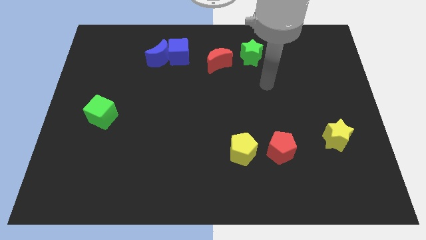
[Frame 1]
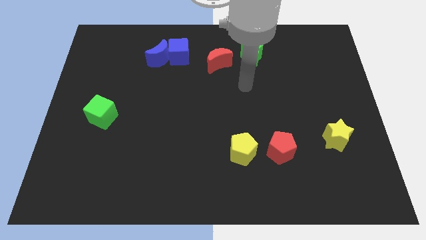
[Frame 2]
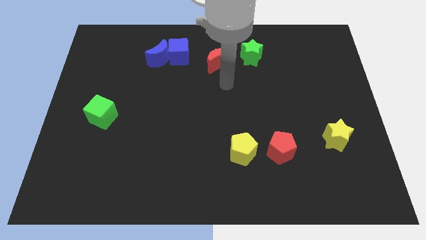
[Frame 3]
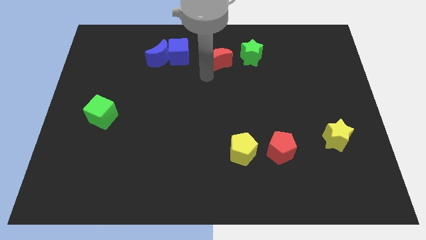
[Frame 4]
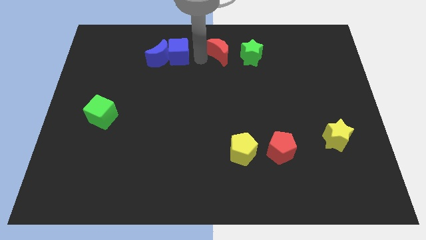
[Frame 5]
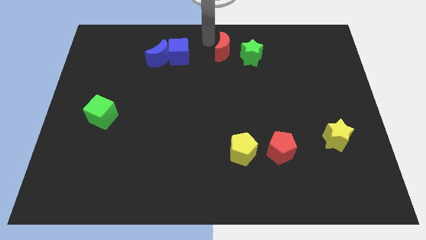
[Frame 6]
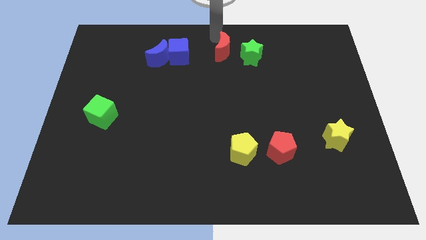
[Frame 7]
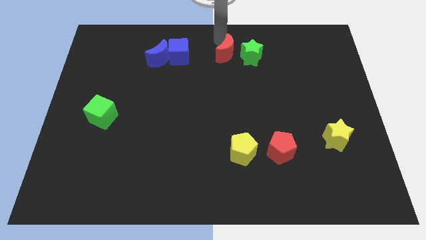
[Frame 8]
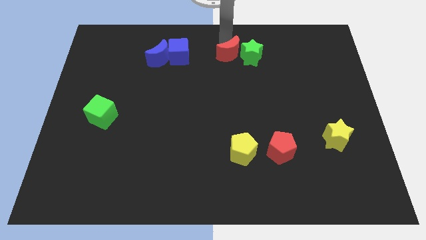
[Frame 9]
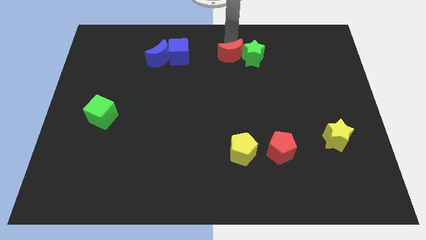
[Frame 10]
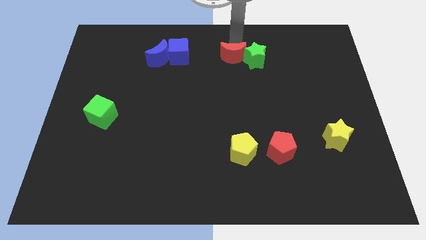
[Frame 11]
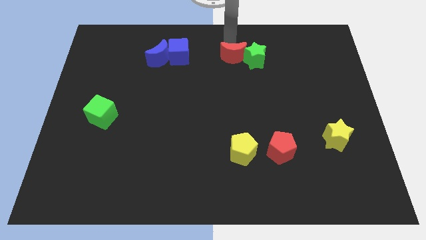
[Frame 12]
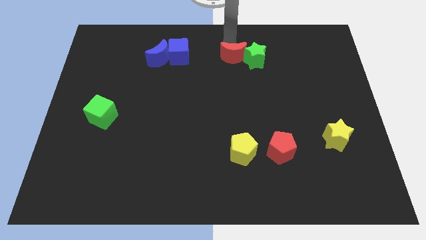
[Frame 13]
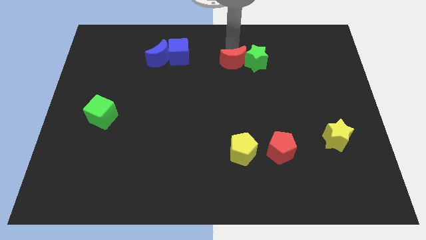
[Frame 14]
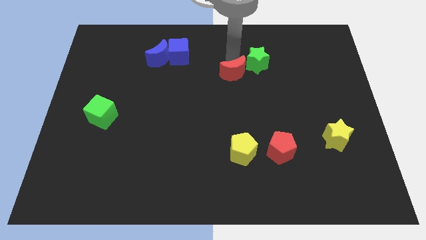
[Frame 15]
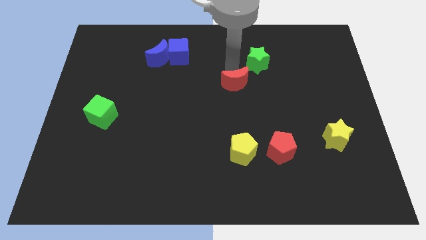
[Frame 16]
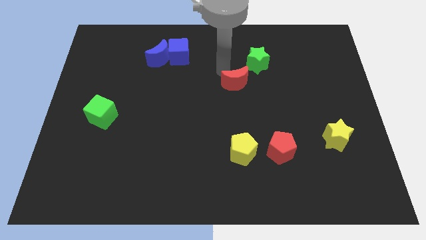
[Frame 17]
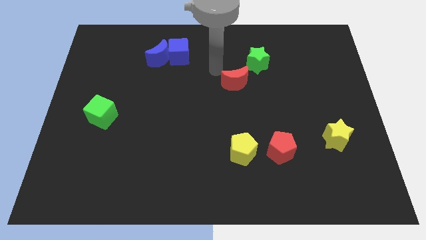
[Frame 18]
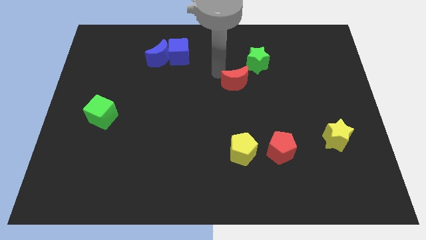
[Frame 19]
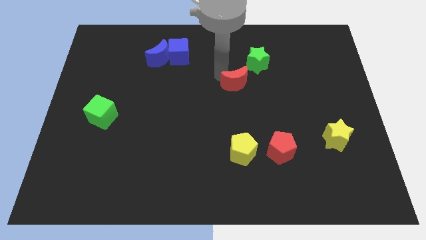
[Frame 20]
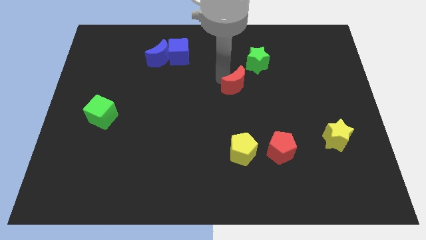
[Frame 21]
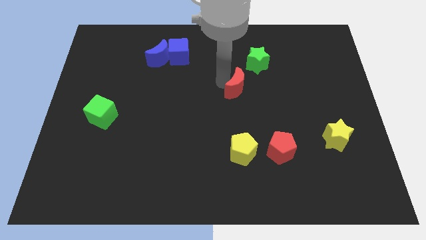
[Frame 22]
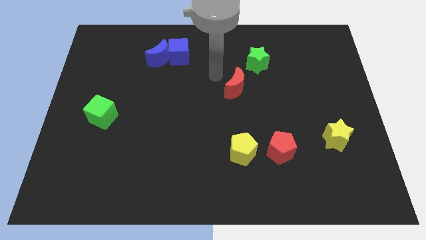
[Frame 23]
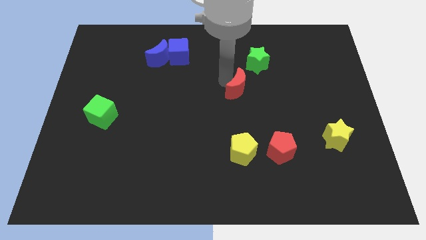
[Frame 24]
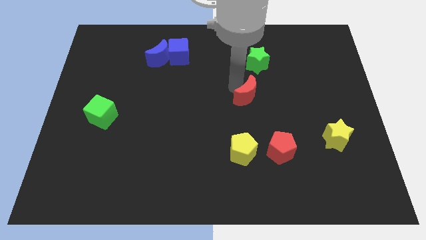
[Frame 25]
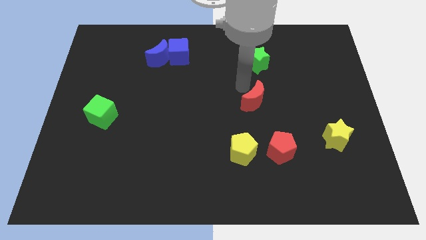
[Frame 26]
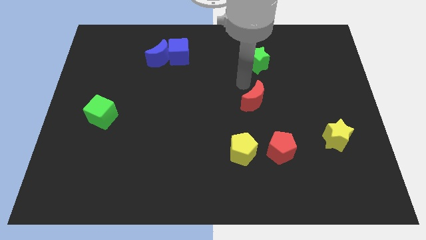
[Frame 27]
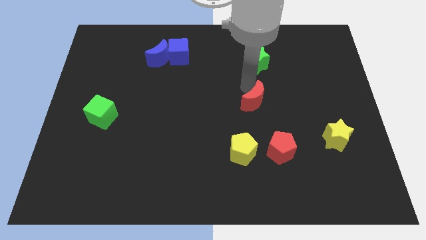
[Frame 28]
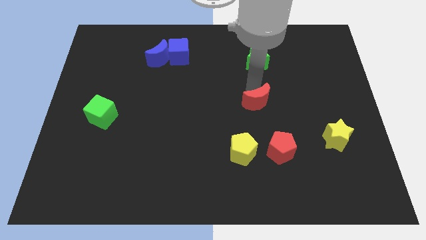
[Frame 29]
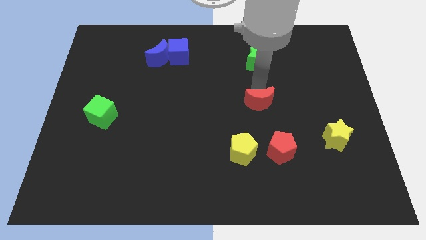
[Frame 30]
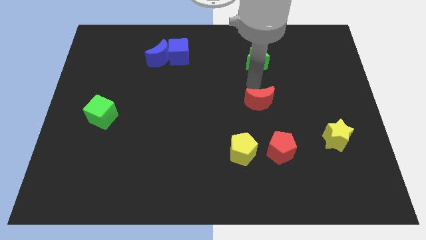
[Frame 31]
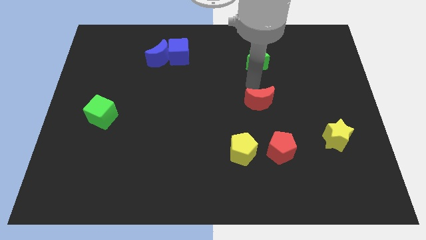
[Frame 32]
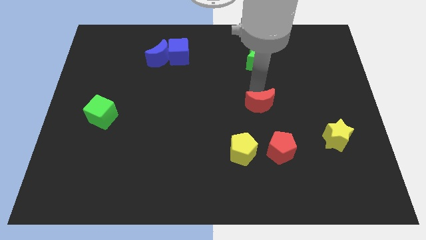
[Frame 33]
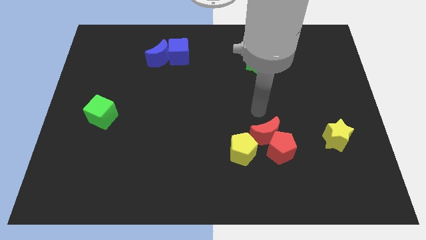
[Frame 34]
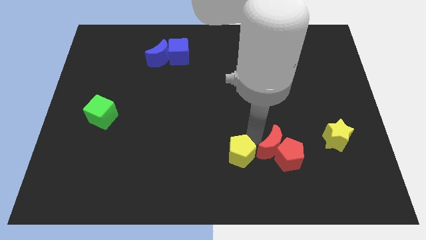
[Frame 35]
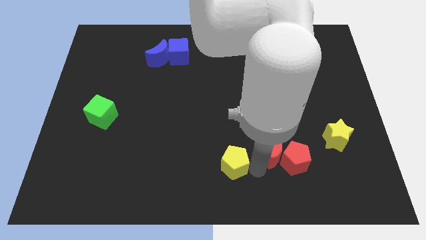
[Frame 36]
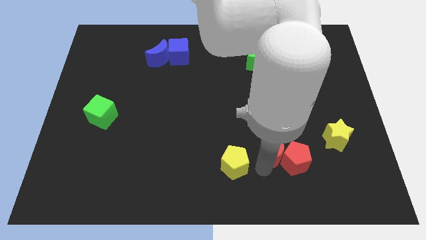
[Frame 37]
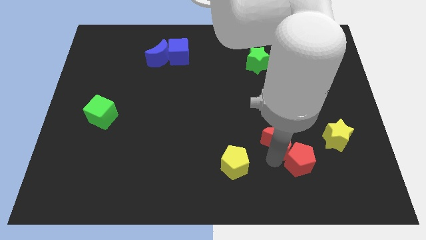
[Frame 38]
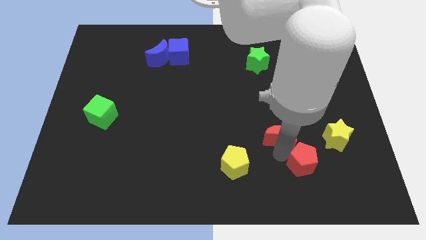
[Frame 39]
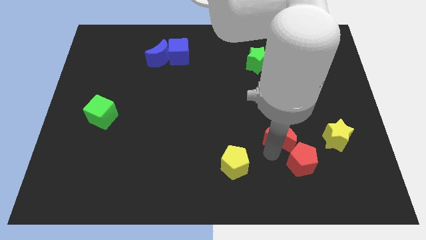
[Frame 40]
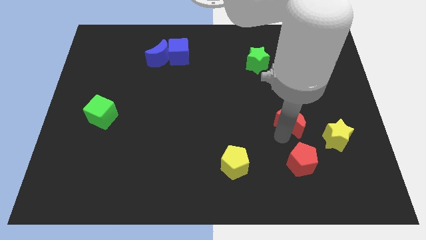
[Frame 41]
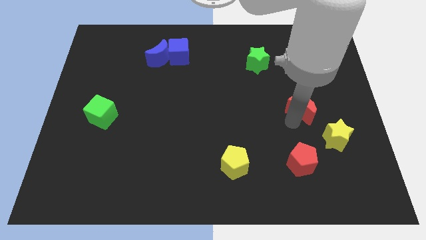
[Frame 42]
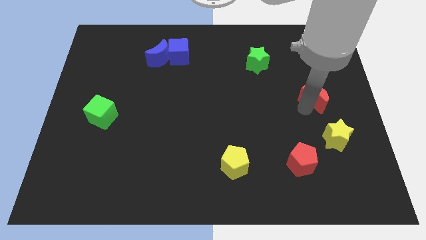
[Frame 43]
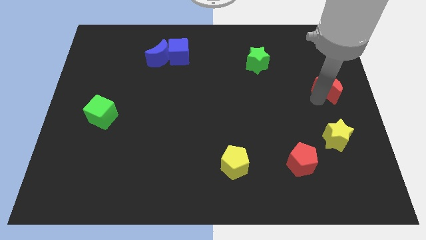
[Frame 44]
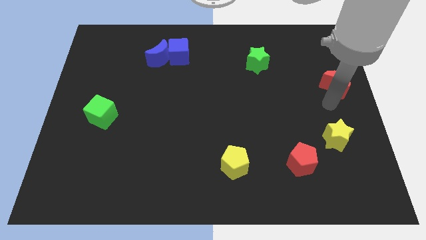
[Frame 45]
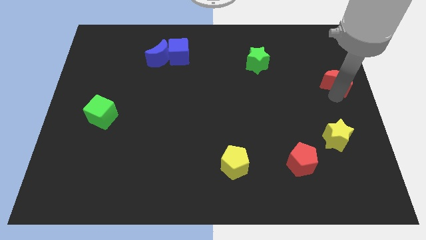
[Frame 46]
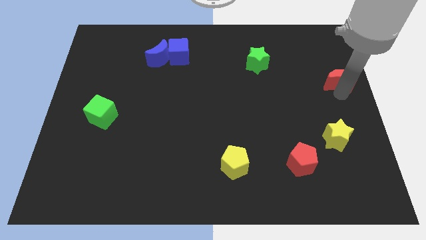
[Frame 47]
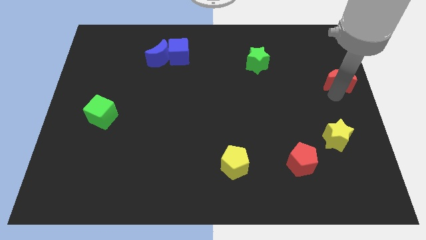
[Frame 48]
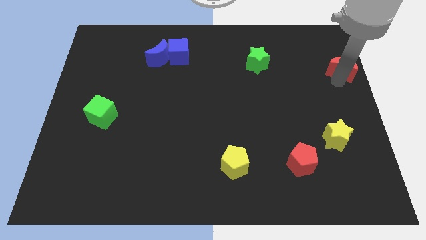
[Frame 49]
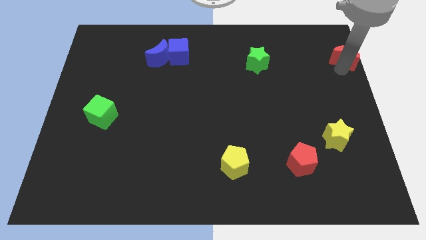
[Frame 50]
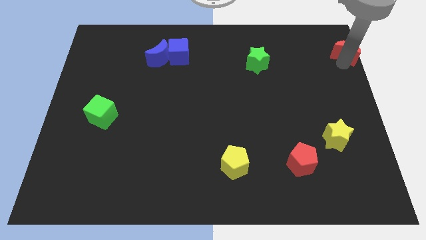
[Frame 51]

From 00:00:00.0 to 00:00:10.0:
slide the red moon to the upper right corner
